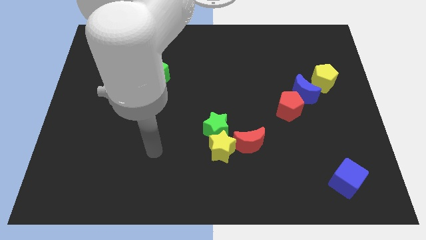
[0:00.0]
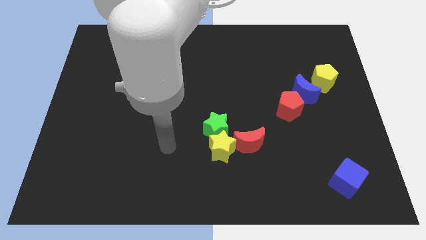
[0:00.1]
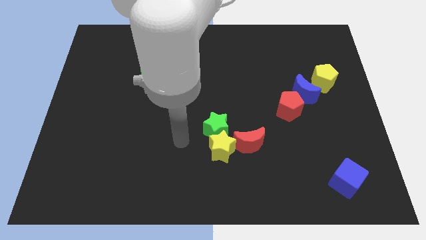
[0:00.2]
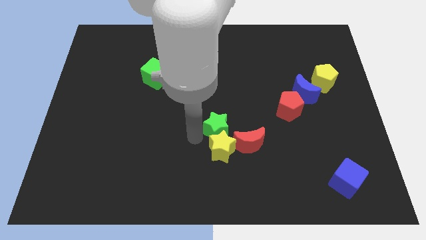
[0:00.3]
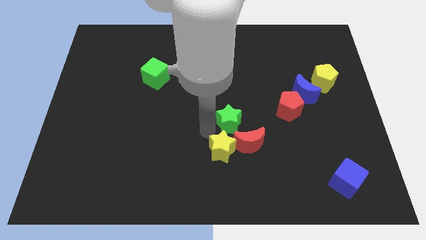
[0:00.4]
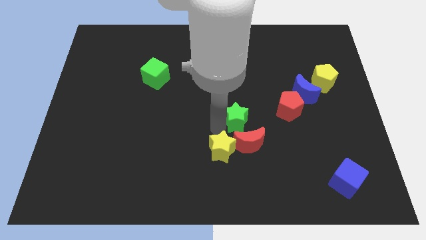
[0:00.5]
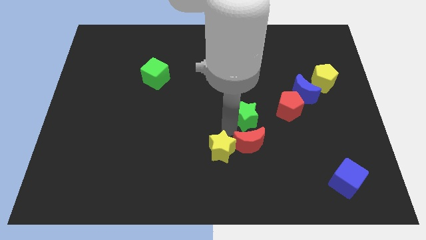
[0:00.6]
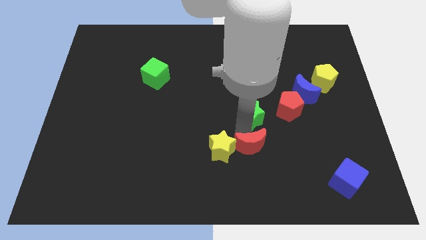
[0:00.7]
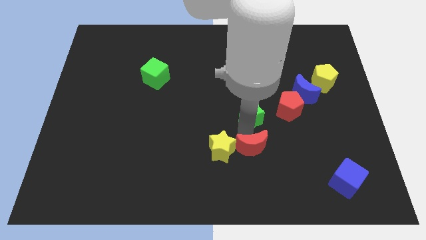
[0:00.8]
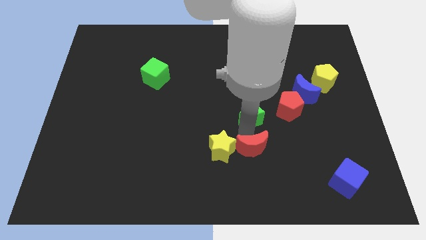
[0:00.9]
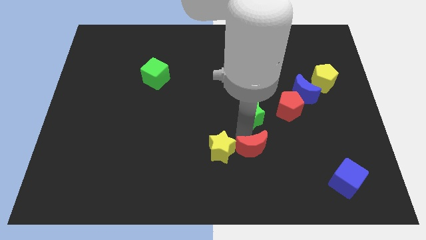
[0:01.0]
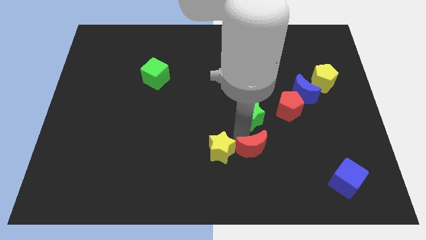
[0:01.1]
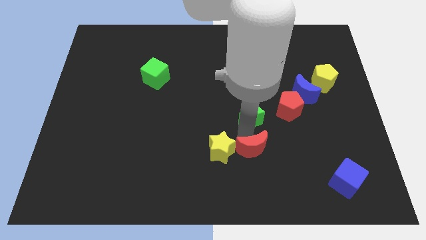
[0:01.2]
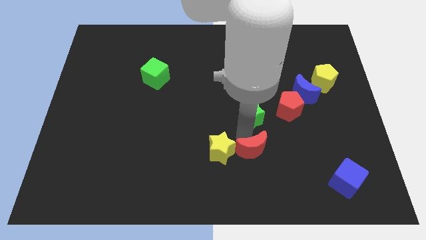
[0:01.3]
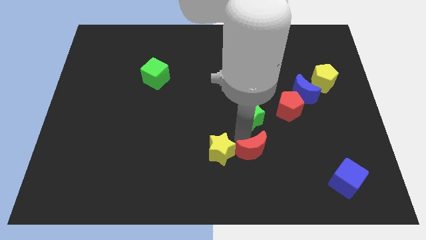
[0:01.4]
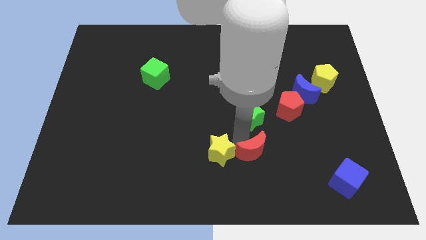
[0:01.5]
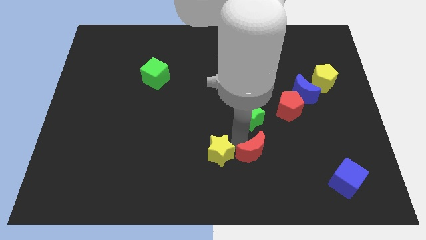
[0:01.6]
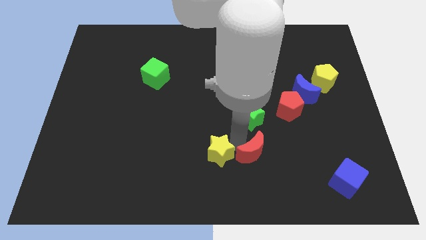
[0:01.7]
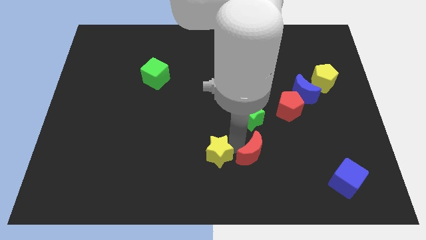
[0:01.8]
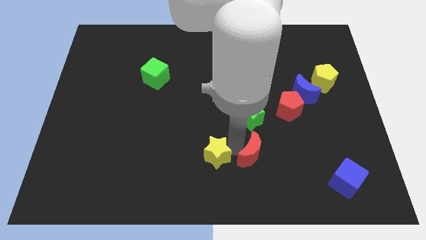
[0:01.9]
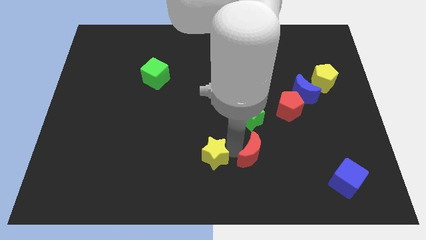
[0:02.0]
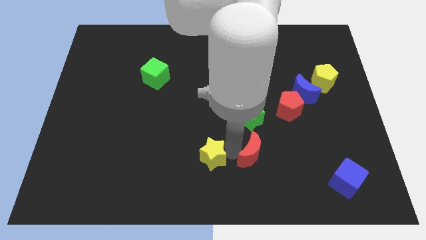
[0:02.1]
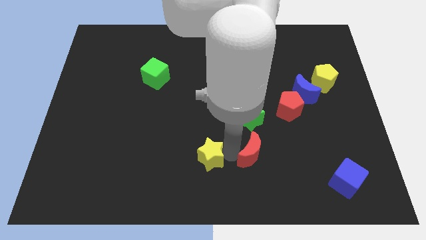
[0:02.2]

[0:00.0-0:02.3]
pull the yellow star apart from the green star and red moon

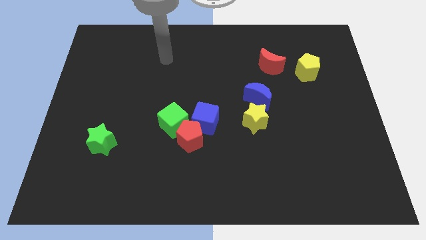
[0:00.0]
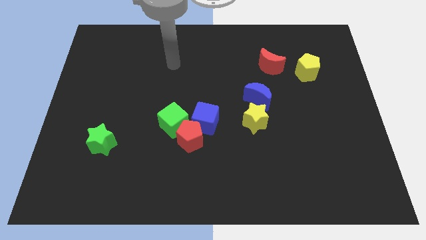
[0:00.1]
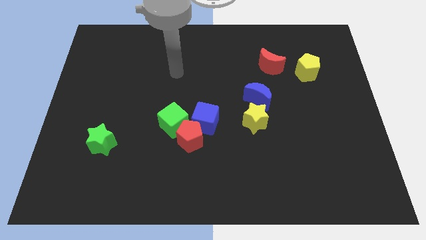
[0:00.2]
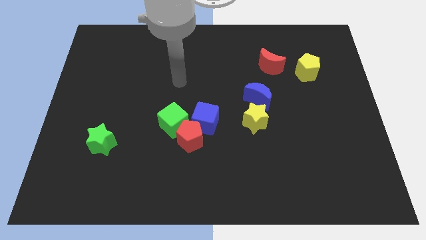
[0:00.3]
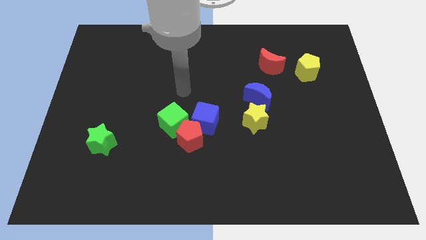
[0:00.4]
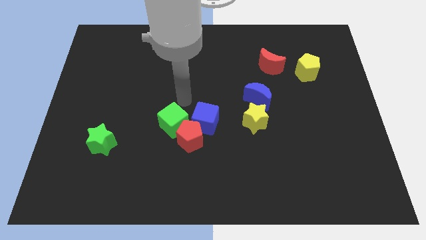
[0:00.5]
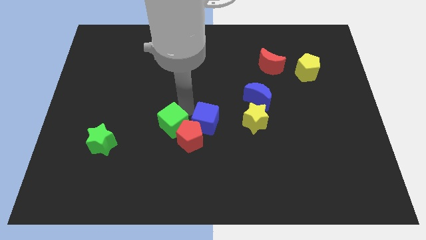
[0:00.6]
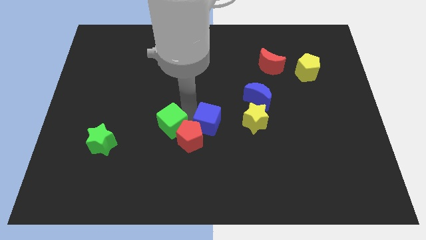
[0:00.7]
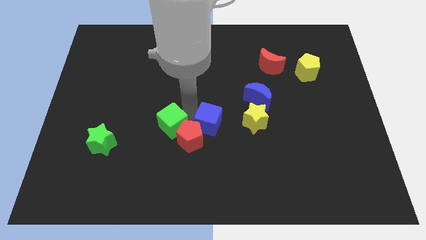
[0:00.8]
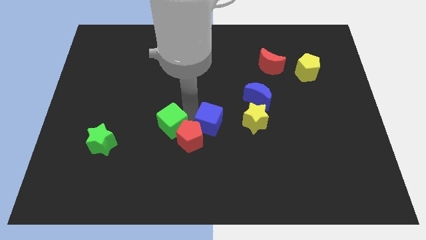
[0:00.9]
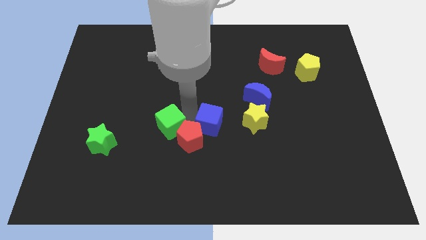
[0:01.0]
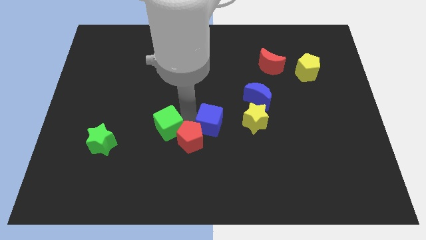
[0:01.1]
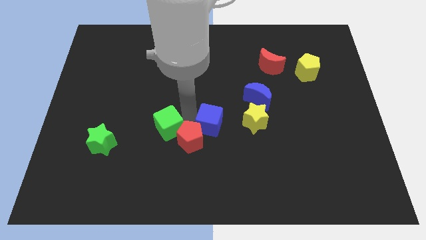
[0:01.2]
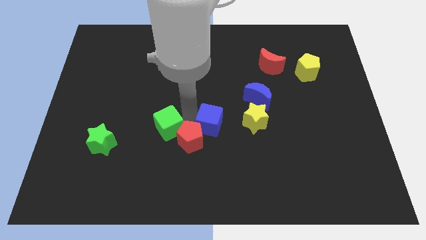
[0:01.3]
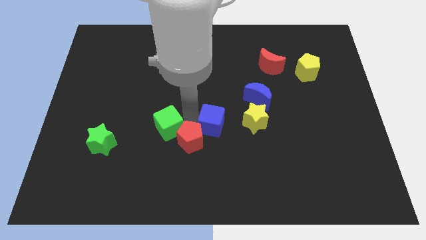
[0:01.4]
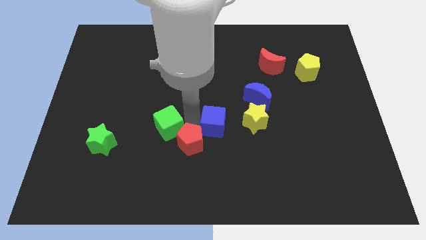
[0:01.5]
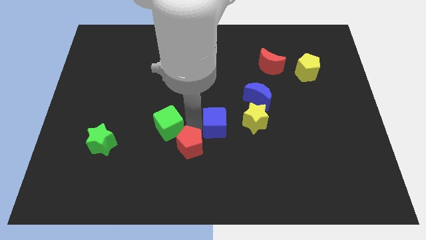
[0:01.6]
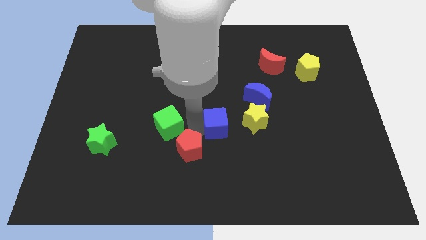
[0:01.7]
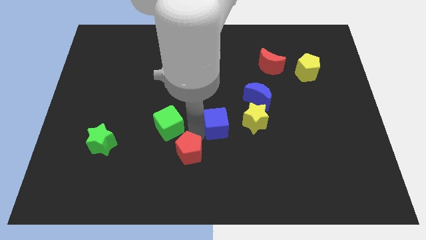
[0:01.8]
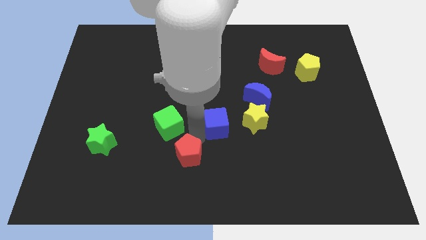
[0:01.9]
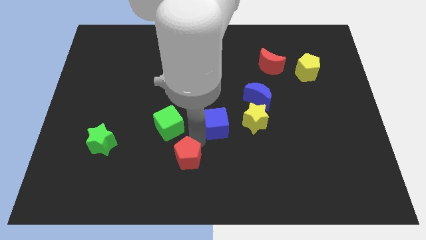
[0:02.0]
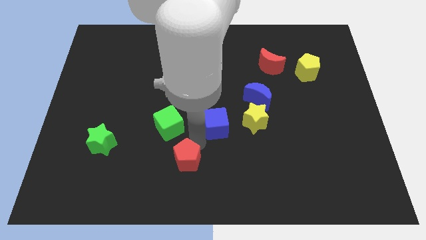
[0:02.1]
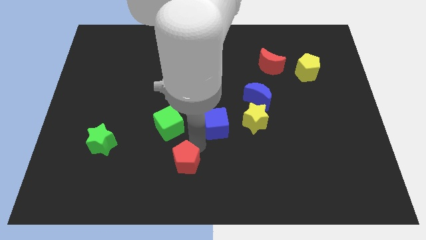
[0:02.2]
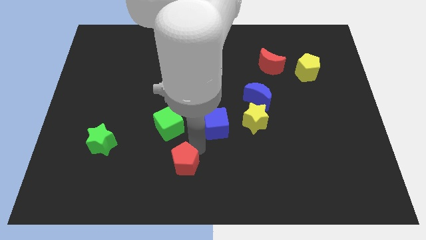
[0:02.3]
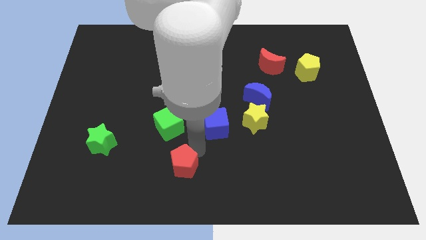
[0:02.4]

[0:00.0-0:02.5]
pull the red pentagon apart from the green cube and blue cube

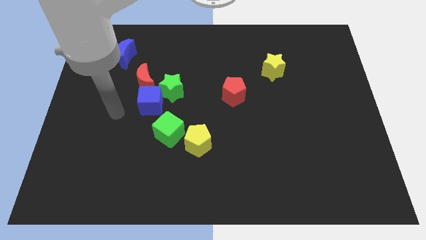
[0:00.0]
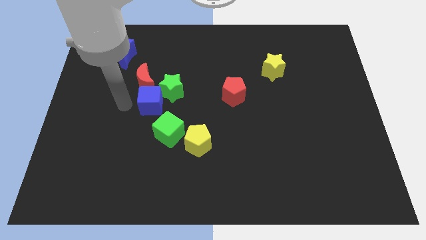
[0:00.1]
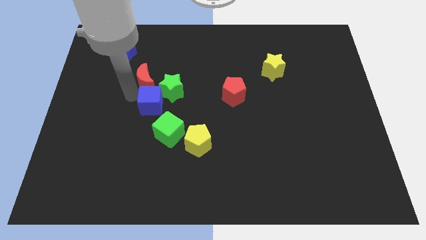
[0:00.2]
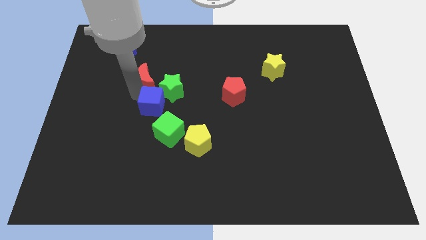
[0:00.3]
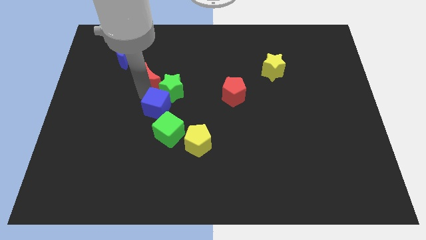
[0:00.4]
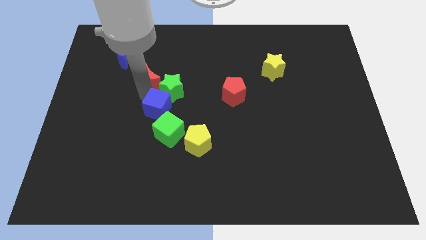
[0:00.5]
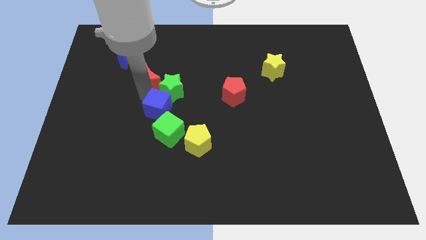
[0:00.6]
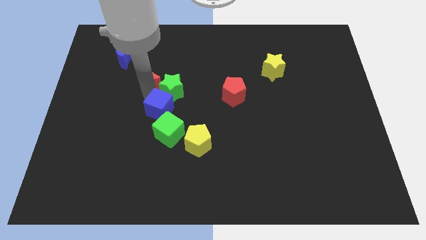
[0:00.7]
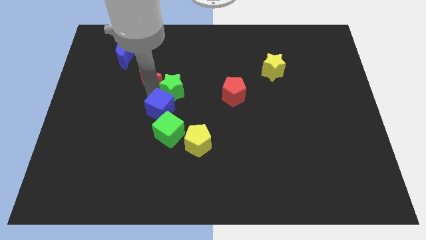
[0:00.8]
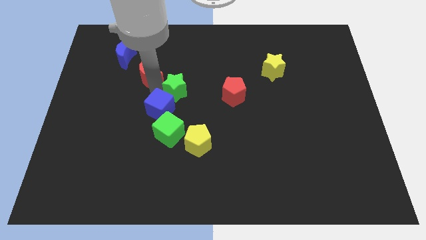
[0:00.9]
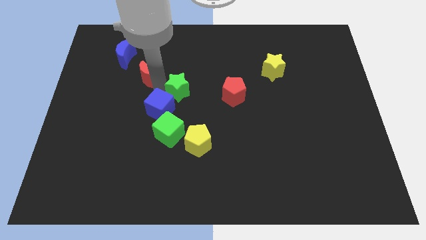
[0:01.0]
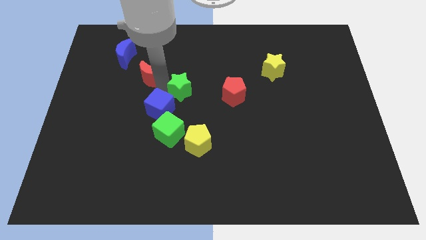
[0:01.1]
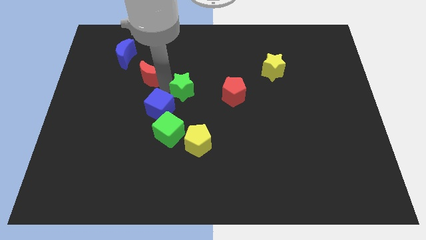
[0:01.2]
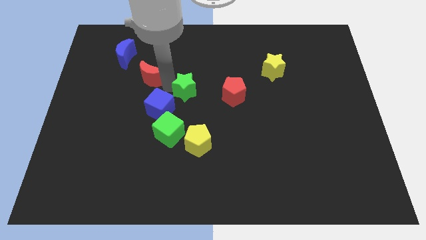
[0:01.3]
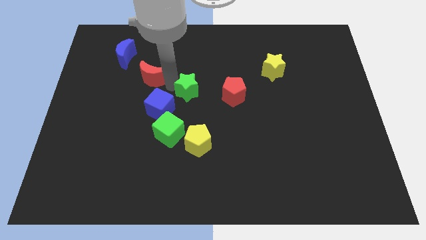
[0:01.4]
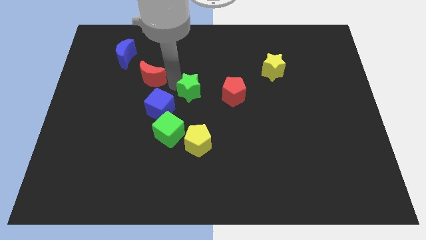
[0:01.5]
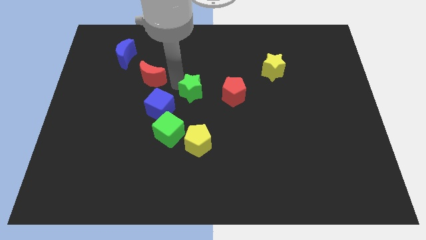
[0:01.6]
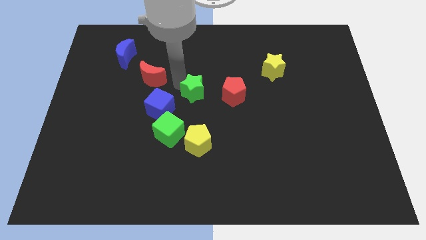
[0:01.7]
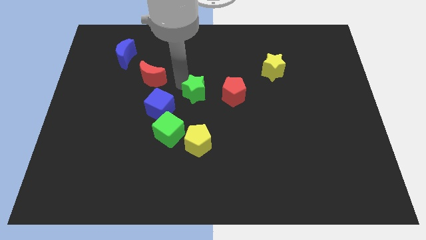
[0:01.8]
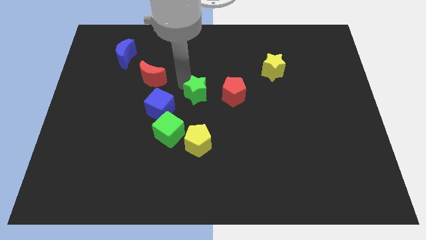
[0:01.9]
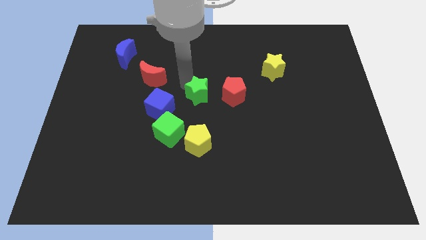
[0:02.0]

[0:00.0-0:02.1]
move the green star away from the blue cube and red moon

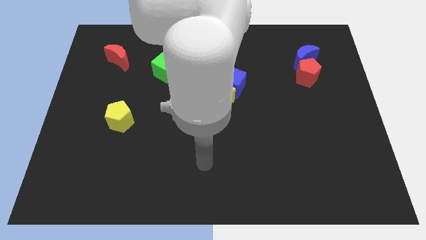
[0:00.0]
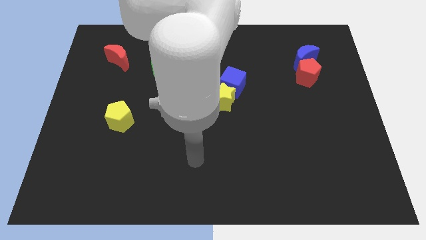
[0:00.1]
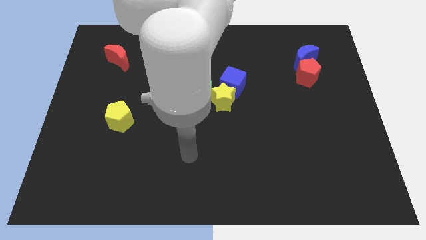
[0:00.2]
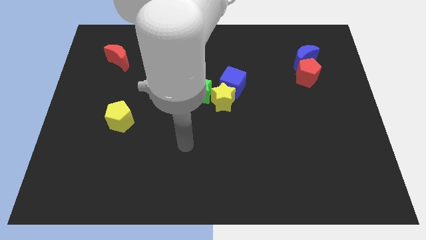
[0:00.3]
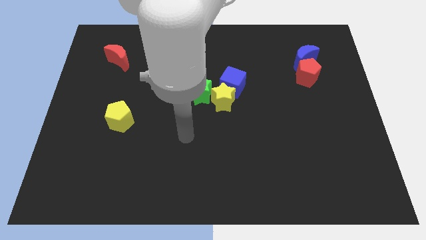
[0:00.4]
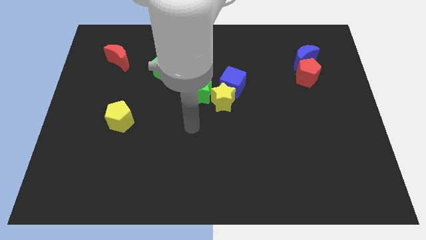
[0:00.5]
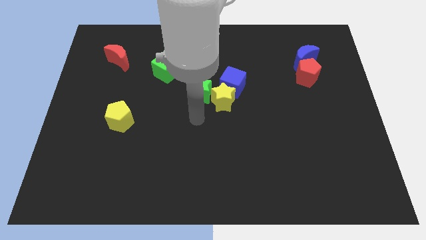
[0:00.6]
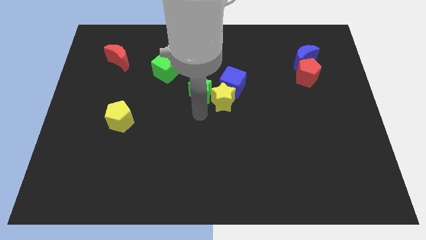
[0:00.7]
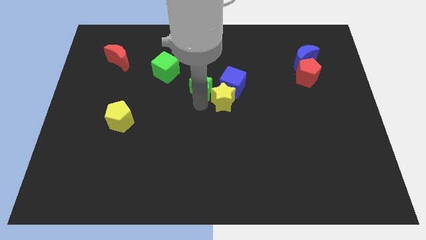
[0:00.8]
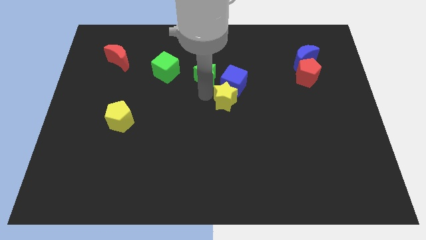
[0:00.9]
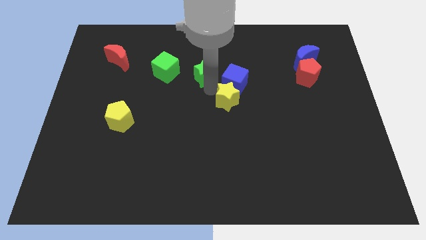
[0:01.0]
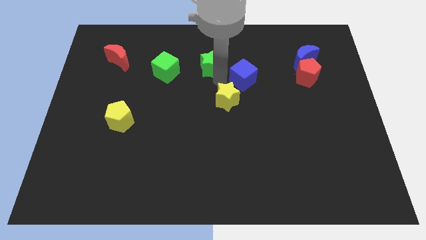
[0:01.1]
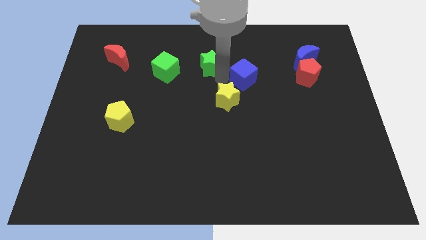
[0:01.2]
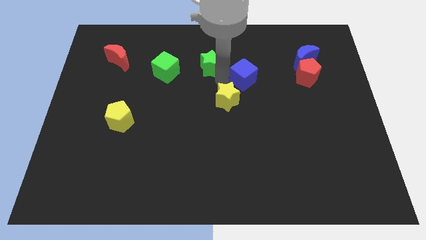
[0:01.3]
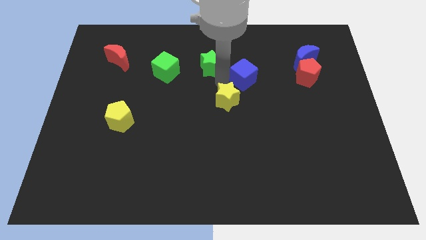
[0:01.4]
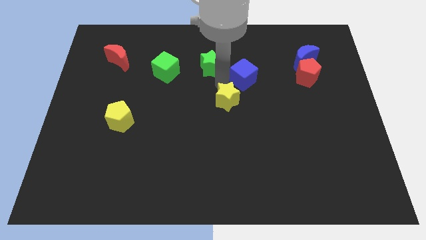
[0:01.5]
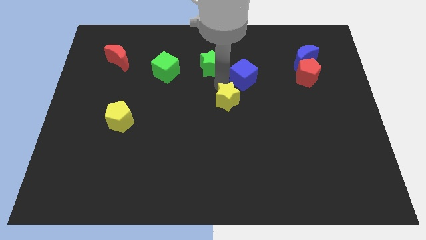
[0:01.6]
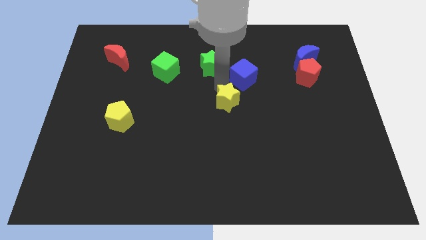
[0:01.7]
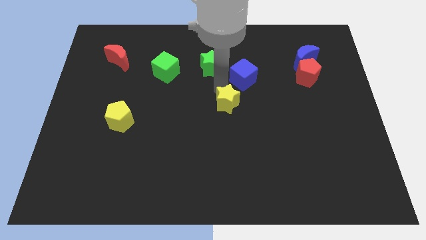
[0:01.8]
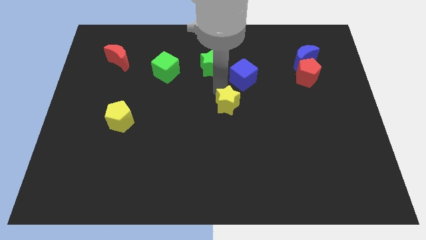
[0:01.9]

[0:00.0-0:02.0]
separate the yellow star from the blue cube and green star

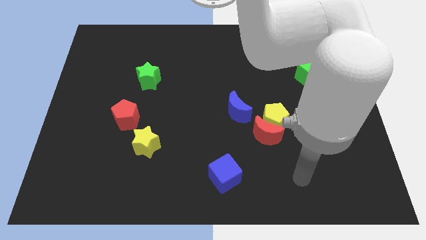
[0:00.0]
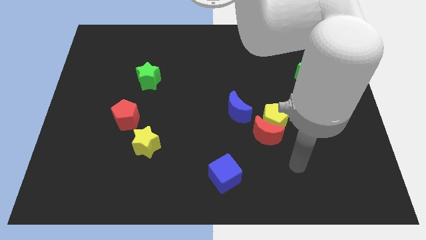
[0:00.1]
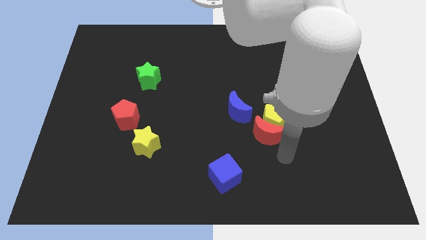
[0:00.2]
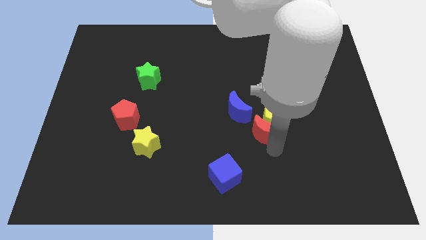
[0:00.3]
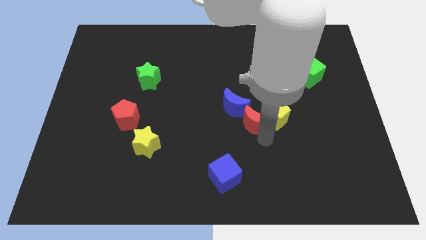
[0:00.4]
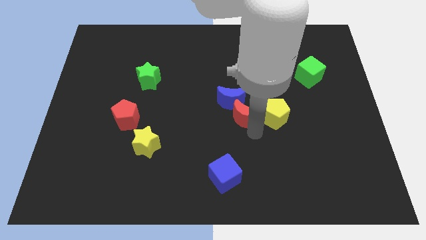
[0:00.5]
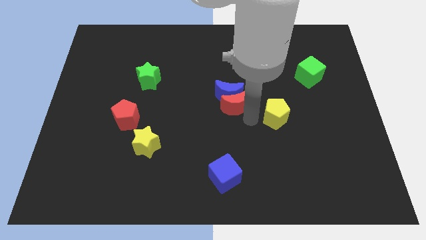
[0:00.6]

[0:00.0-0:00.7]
separate the yellow pentagon from the red moon and blue moon
